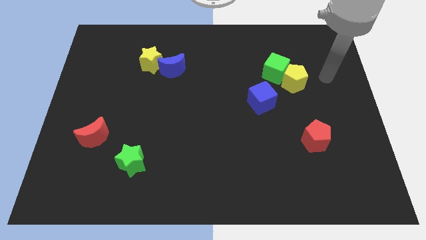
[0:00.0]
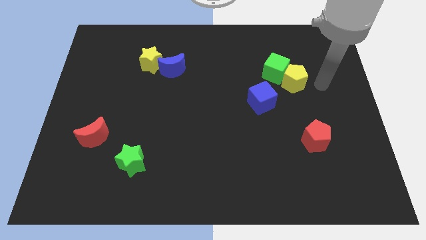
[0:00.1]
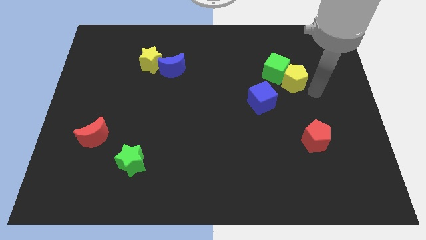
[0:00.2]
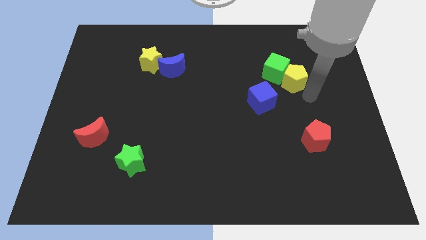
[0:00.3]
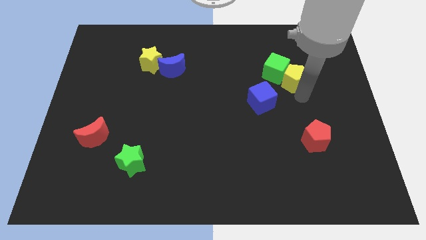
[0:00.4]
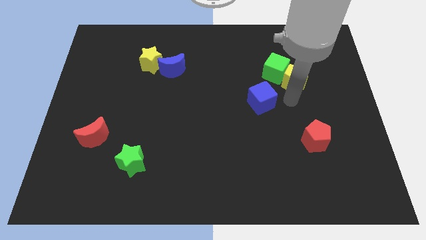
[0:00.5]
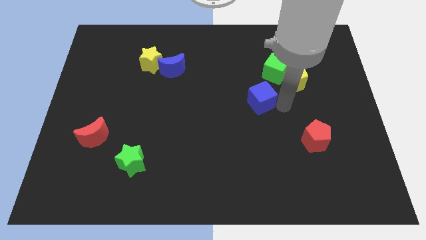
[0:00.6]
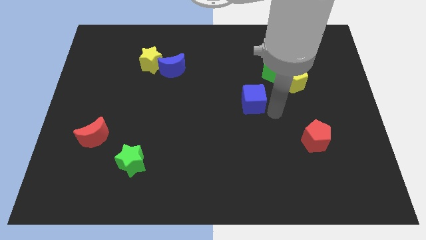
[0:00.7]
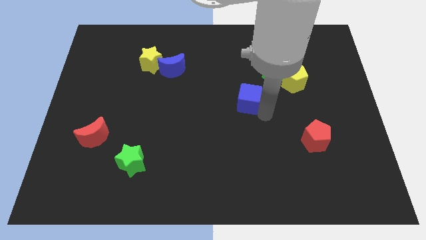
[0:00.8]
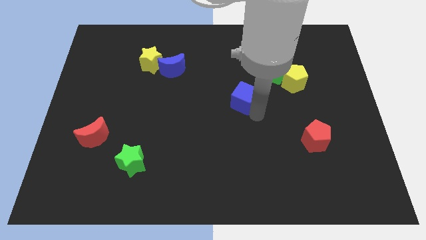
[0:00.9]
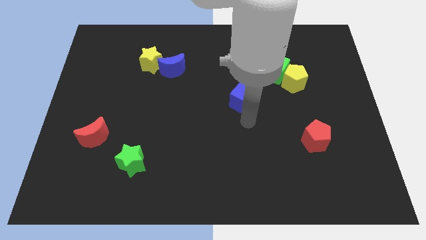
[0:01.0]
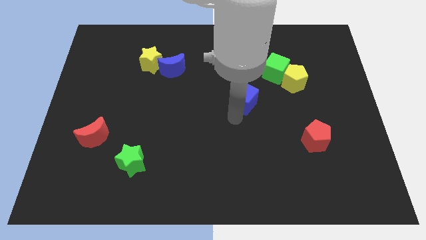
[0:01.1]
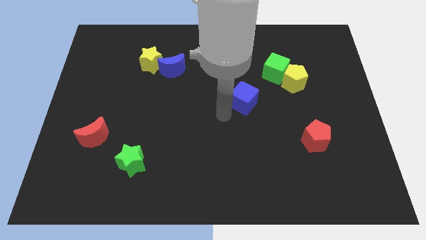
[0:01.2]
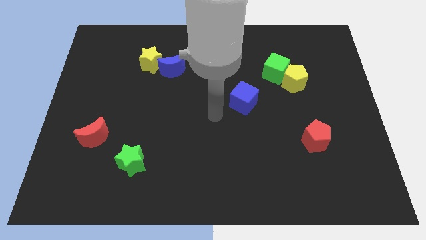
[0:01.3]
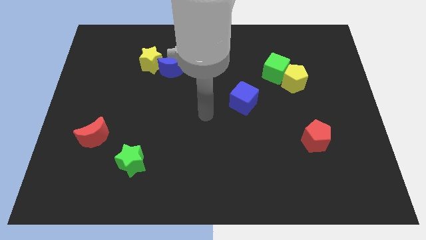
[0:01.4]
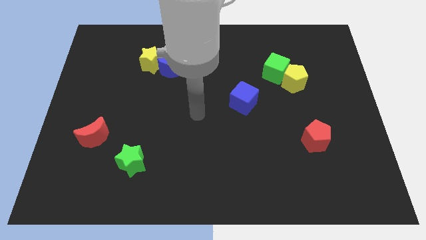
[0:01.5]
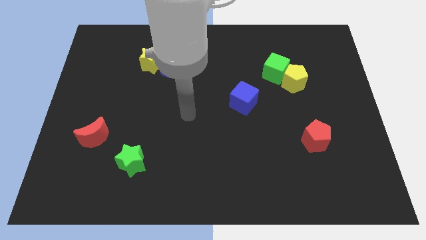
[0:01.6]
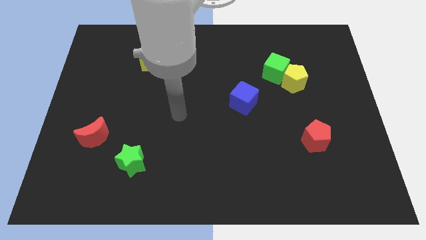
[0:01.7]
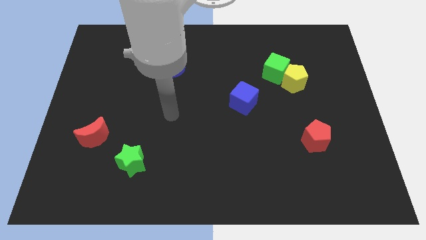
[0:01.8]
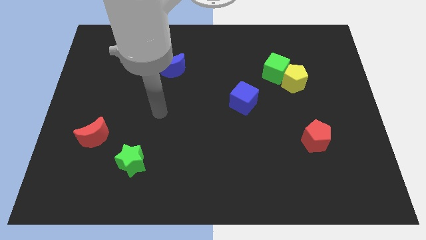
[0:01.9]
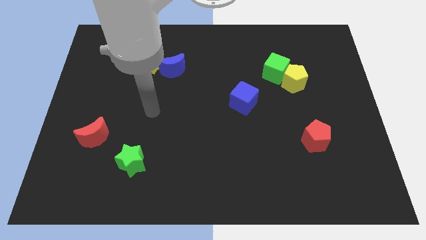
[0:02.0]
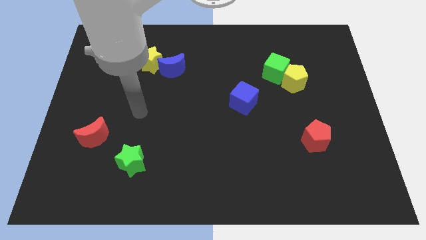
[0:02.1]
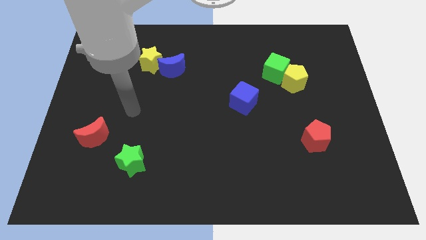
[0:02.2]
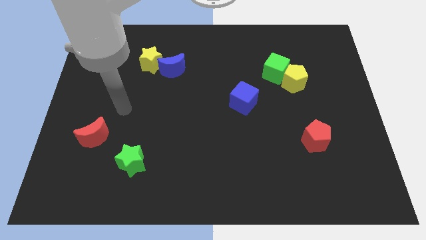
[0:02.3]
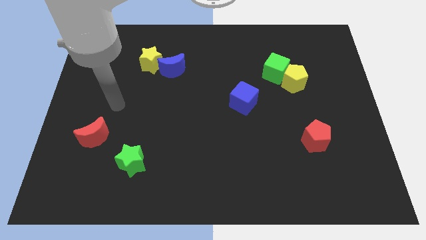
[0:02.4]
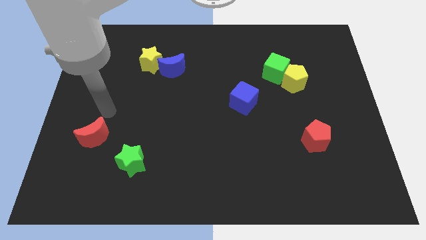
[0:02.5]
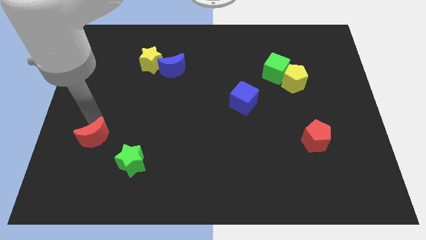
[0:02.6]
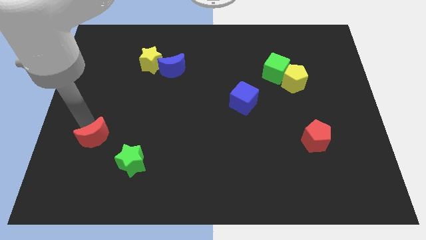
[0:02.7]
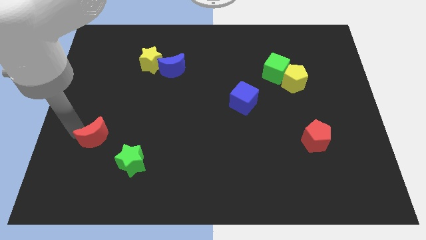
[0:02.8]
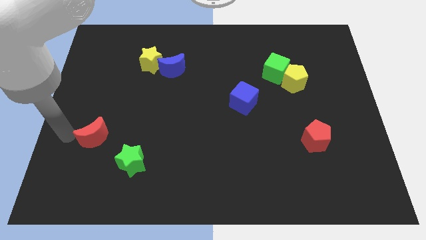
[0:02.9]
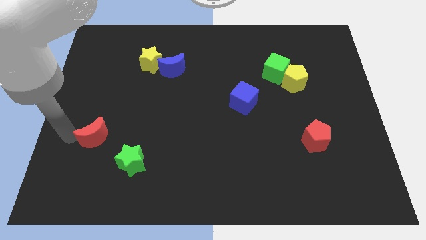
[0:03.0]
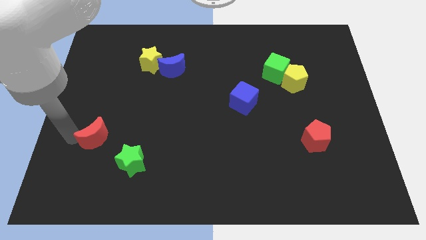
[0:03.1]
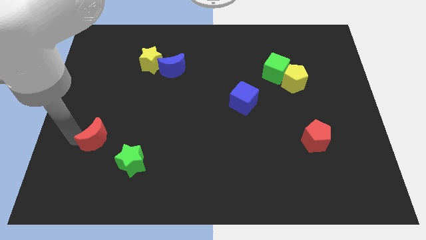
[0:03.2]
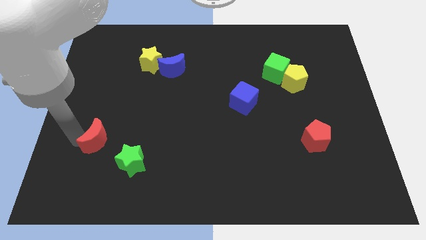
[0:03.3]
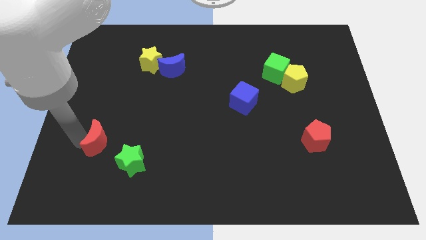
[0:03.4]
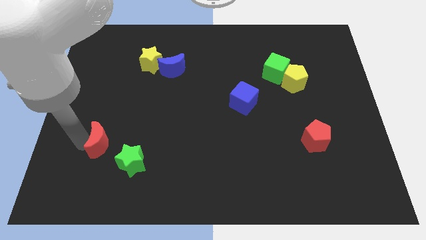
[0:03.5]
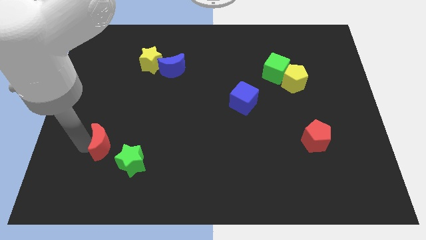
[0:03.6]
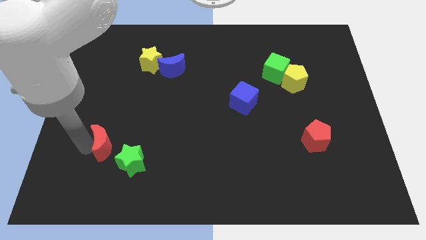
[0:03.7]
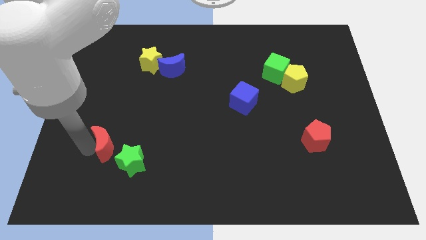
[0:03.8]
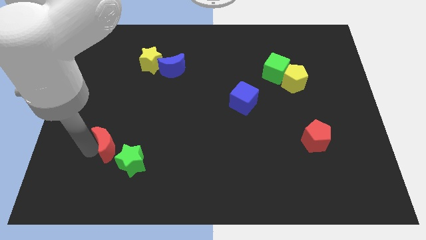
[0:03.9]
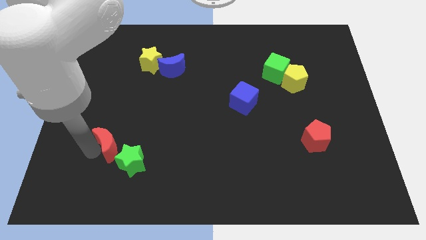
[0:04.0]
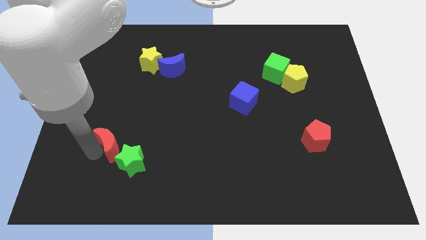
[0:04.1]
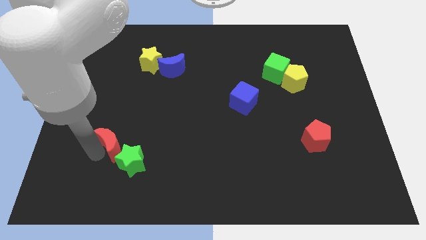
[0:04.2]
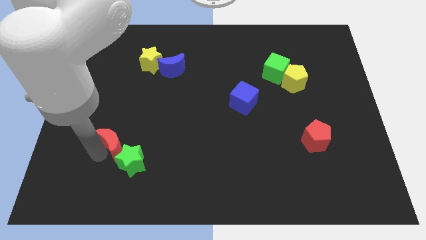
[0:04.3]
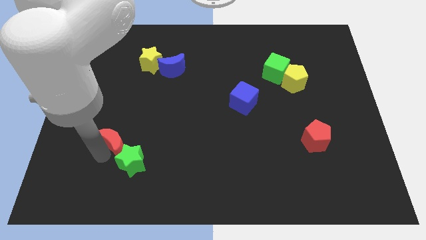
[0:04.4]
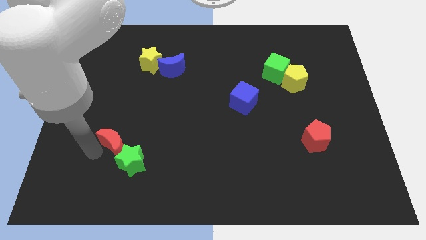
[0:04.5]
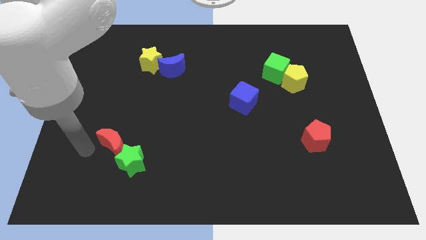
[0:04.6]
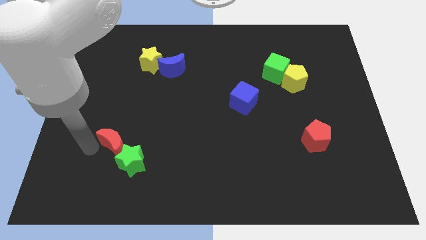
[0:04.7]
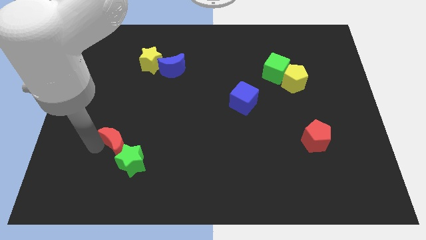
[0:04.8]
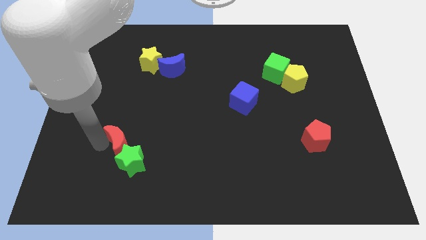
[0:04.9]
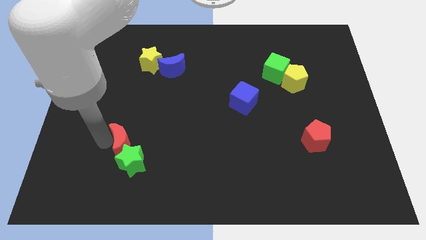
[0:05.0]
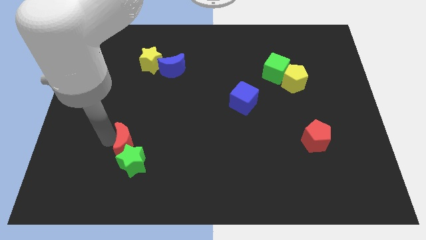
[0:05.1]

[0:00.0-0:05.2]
slightly push the red moon to the right

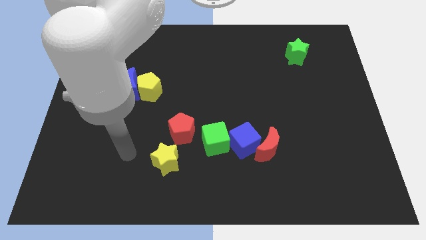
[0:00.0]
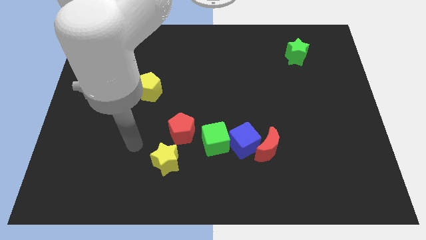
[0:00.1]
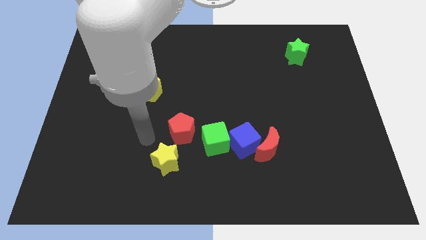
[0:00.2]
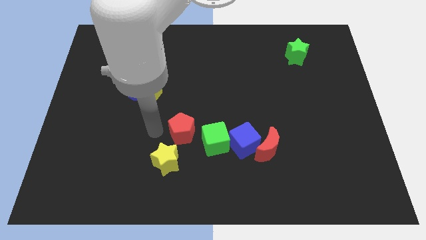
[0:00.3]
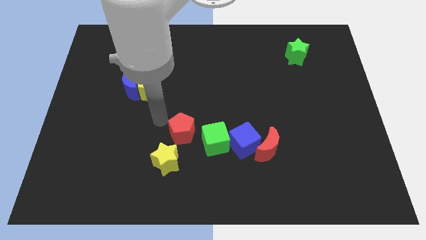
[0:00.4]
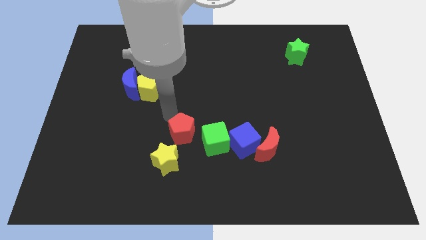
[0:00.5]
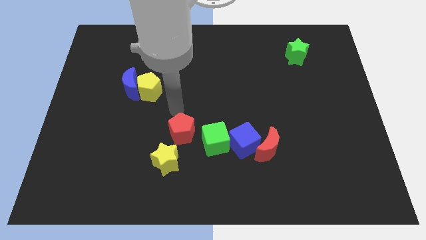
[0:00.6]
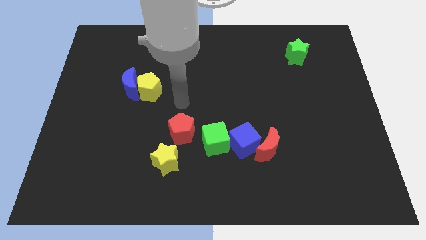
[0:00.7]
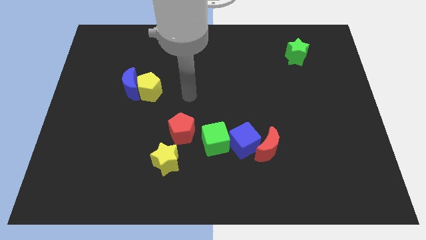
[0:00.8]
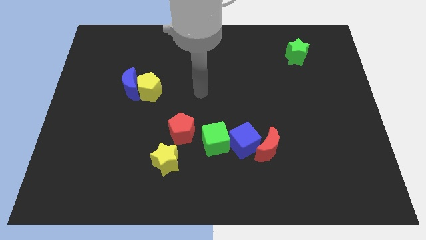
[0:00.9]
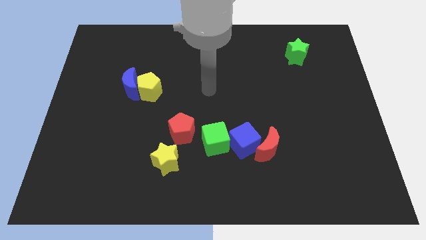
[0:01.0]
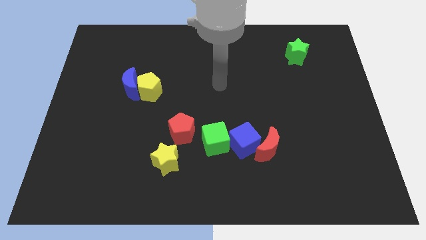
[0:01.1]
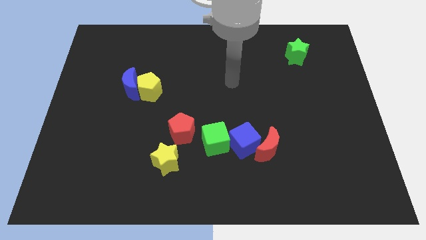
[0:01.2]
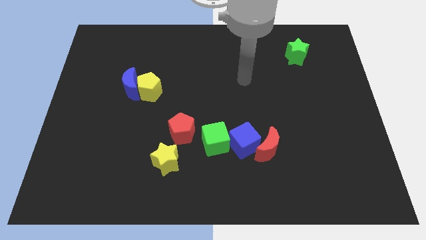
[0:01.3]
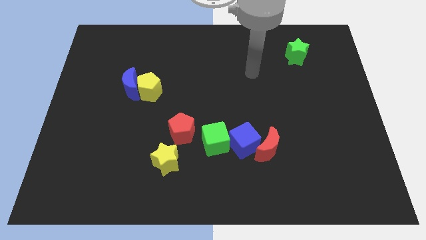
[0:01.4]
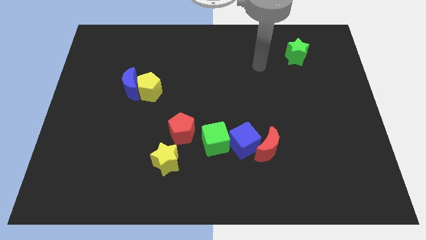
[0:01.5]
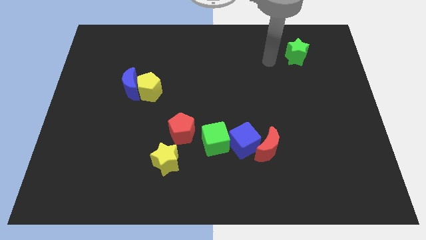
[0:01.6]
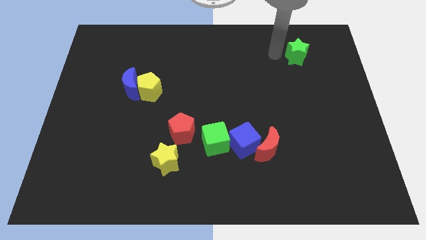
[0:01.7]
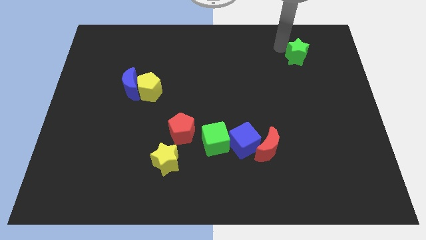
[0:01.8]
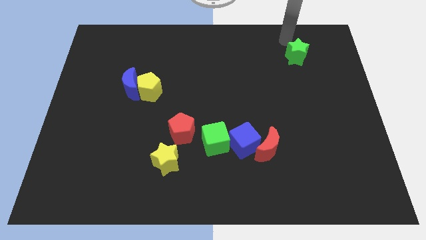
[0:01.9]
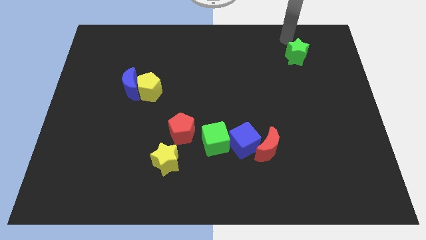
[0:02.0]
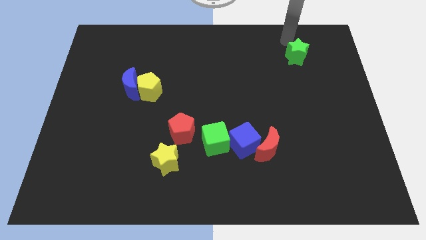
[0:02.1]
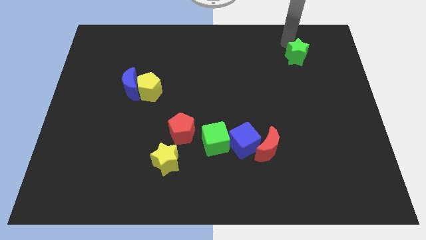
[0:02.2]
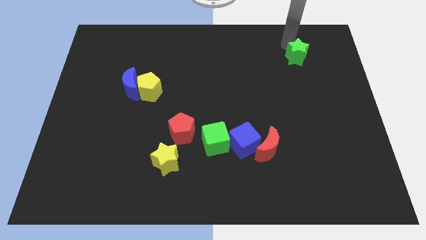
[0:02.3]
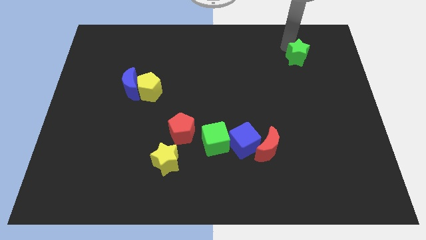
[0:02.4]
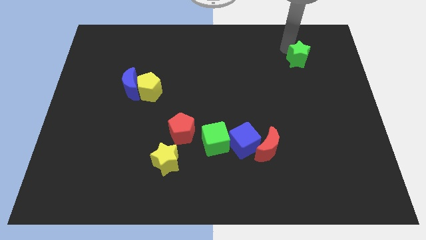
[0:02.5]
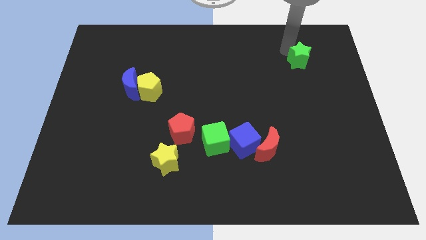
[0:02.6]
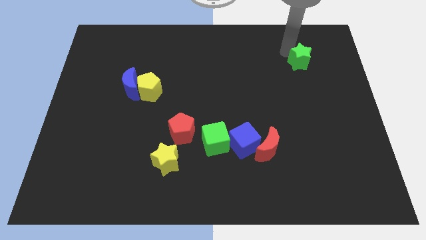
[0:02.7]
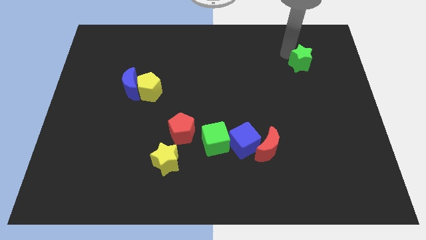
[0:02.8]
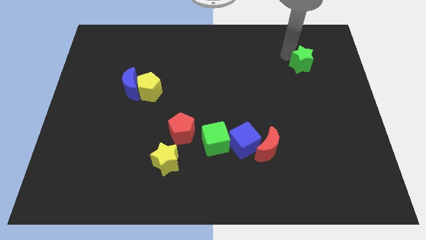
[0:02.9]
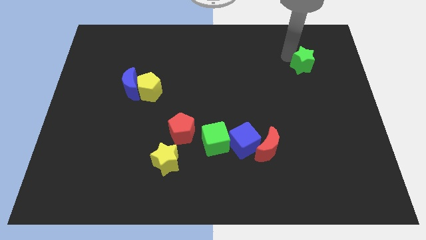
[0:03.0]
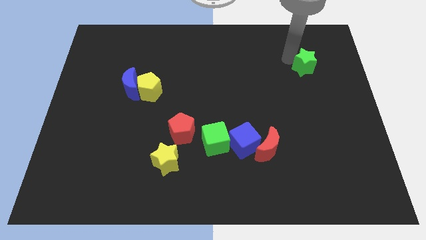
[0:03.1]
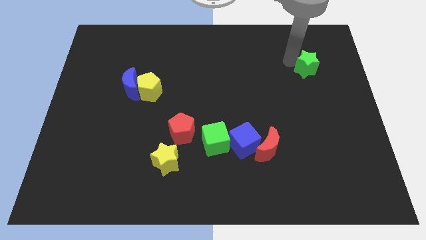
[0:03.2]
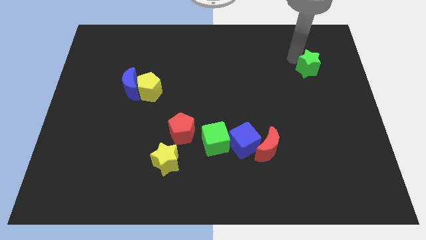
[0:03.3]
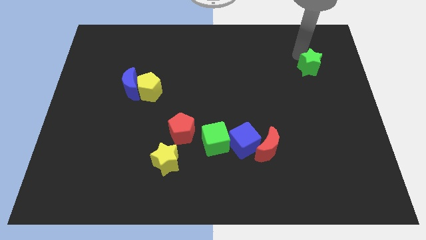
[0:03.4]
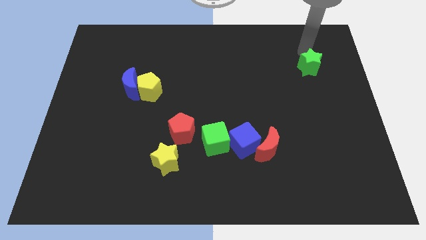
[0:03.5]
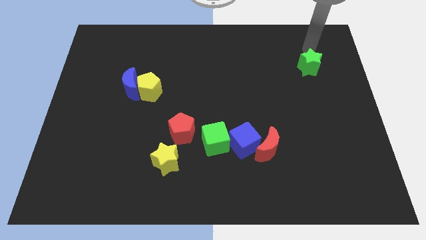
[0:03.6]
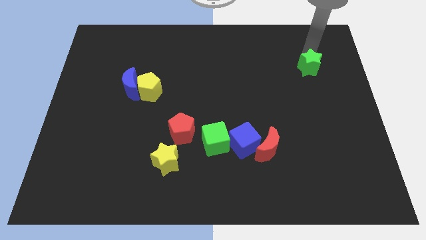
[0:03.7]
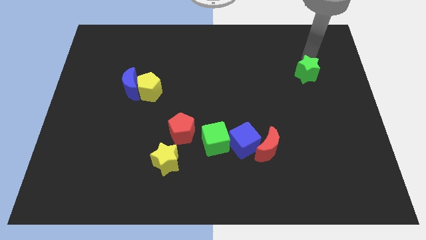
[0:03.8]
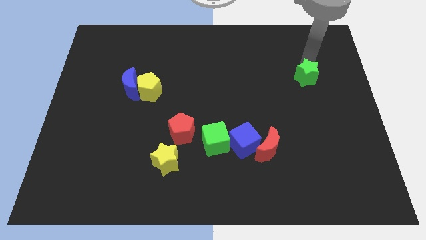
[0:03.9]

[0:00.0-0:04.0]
move the green star downwards slightly
